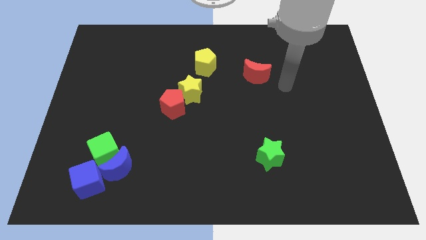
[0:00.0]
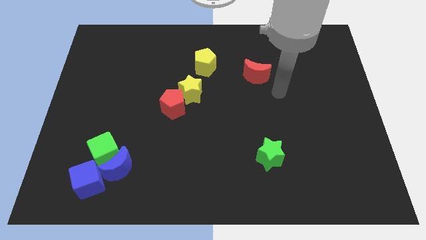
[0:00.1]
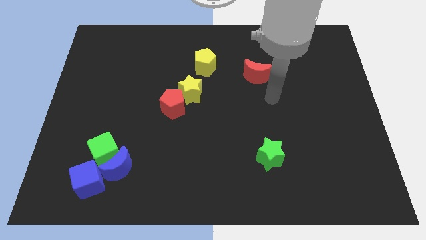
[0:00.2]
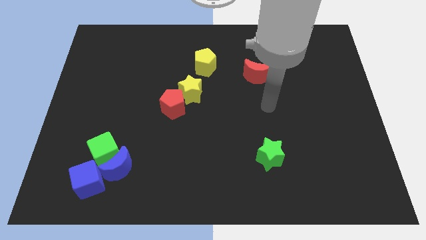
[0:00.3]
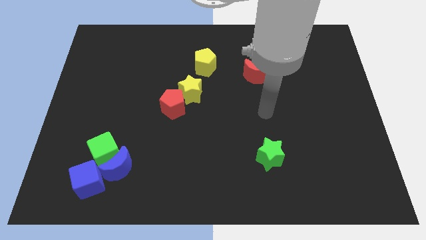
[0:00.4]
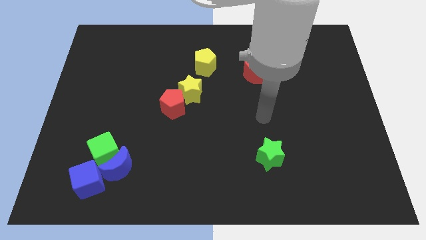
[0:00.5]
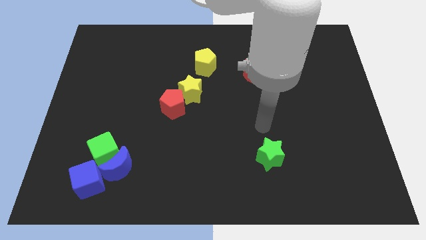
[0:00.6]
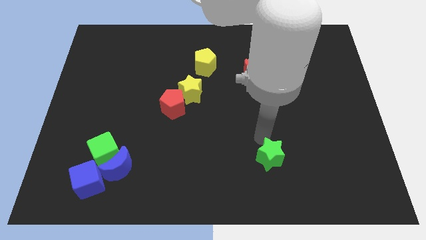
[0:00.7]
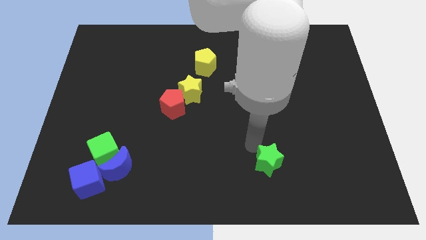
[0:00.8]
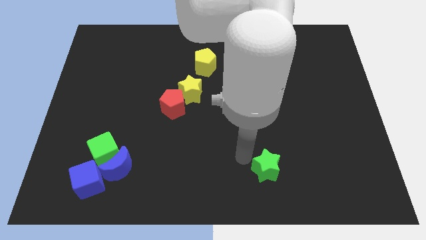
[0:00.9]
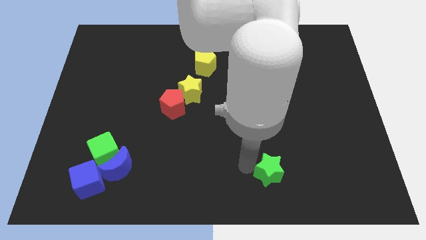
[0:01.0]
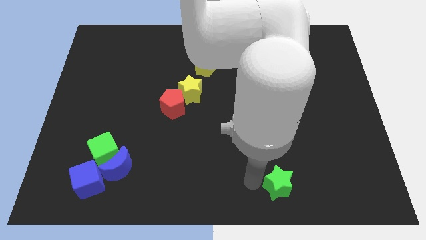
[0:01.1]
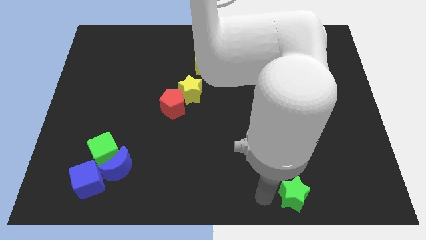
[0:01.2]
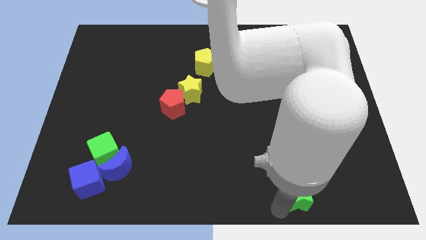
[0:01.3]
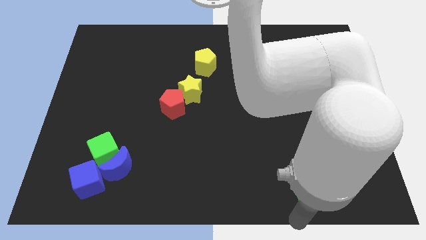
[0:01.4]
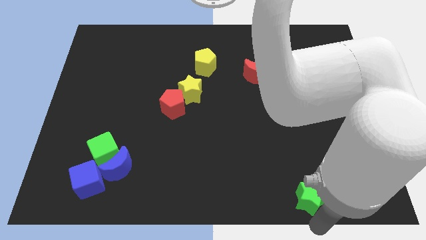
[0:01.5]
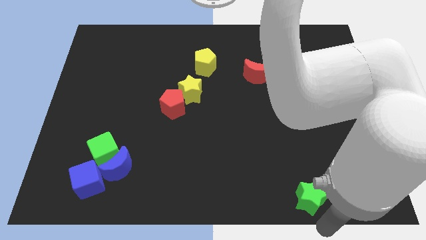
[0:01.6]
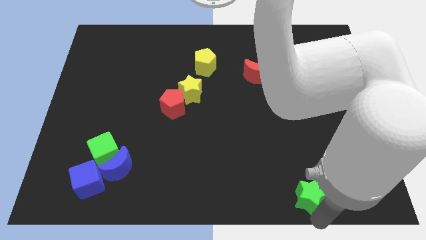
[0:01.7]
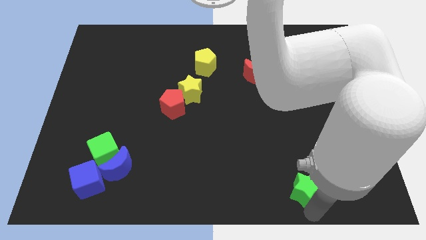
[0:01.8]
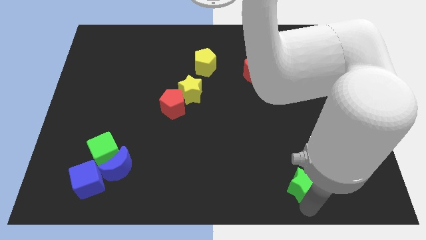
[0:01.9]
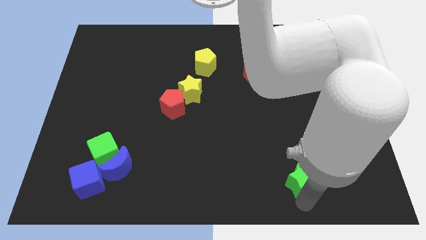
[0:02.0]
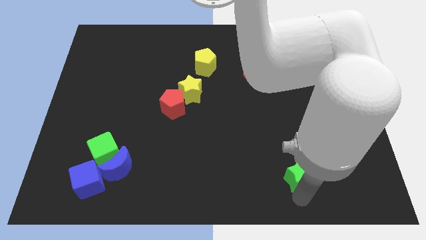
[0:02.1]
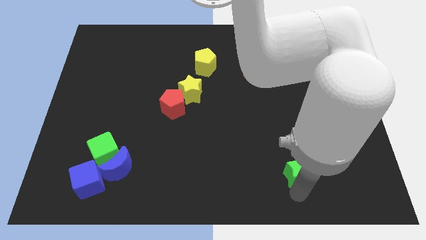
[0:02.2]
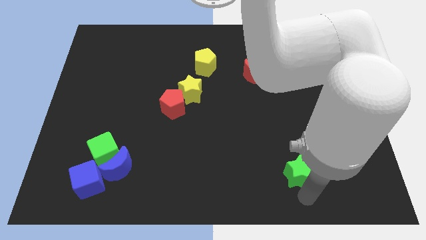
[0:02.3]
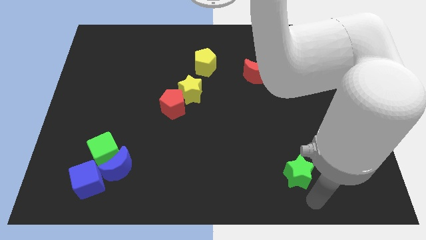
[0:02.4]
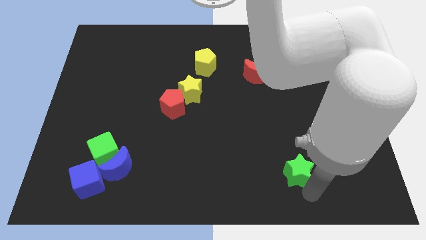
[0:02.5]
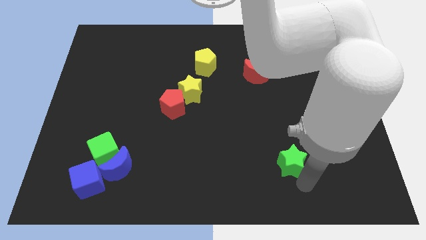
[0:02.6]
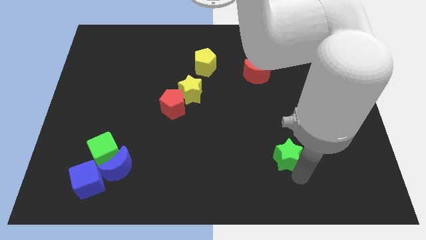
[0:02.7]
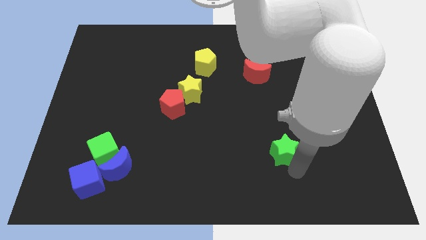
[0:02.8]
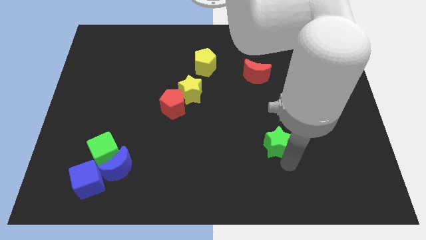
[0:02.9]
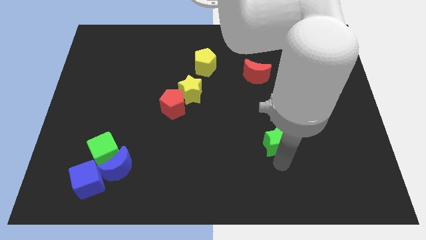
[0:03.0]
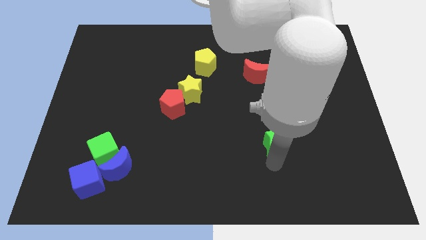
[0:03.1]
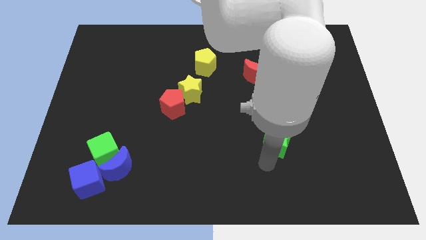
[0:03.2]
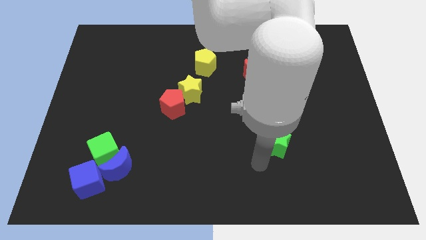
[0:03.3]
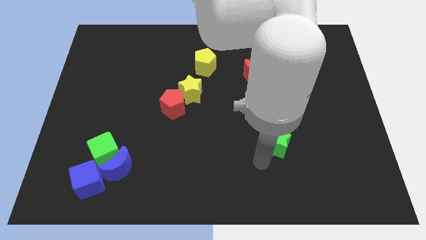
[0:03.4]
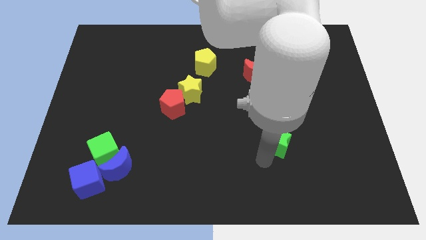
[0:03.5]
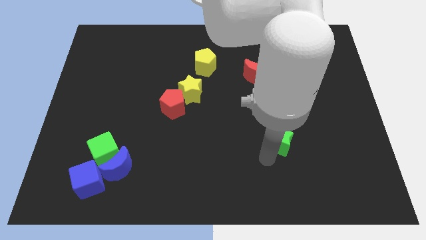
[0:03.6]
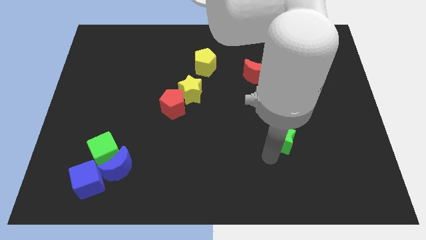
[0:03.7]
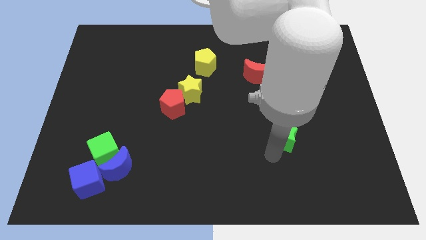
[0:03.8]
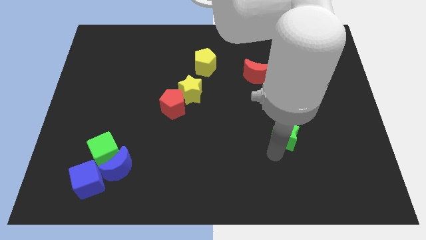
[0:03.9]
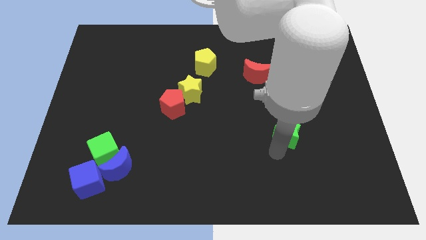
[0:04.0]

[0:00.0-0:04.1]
slightly move the green star up and to the right

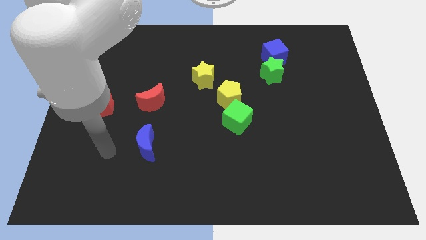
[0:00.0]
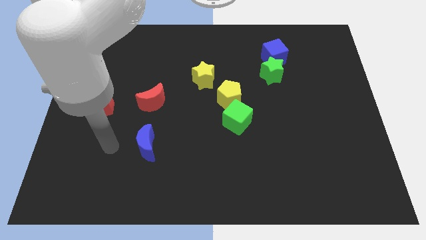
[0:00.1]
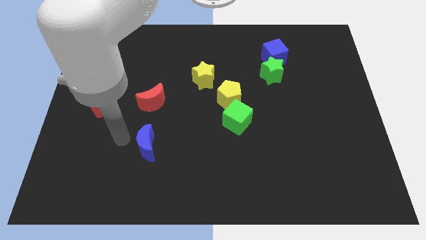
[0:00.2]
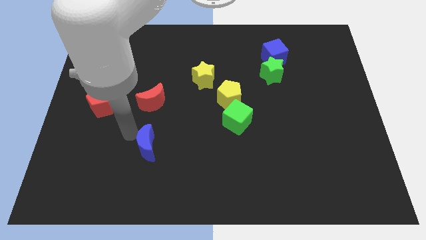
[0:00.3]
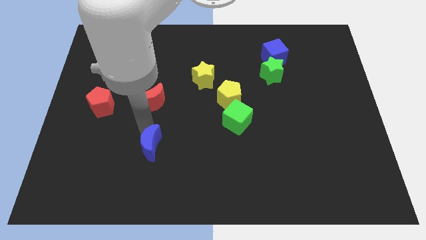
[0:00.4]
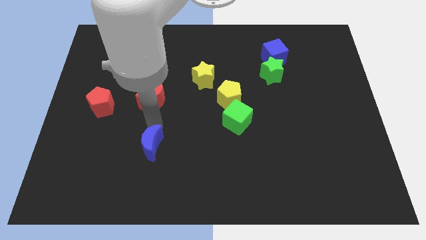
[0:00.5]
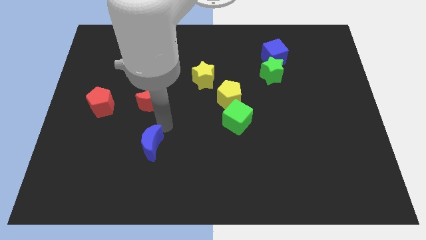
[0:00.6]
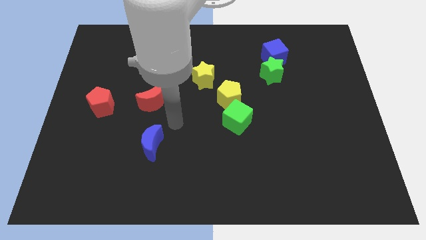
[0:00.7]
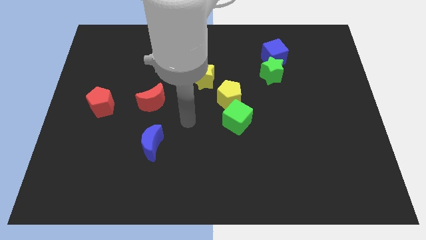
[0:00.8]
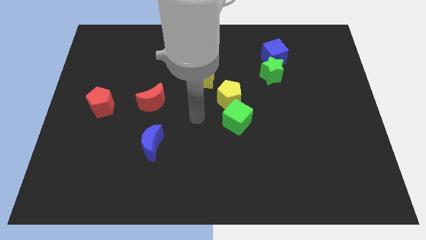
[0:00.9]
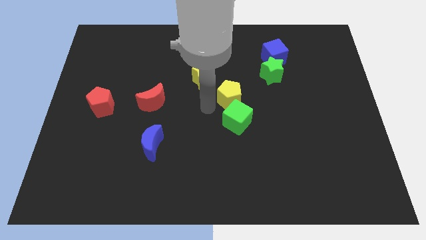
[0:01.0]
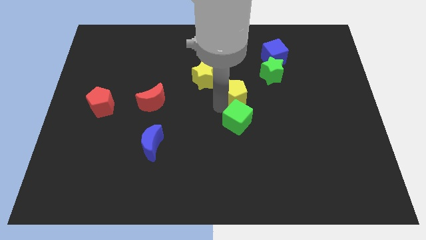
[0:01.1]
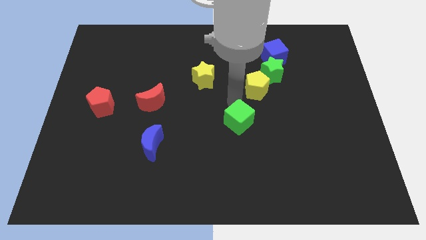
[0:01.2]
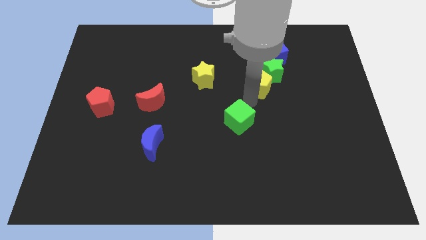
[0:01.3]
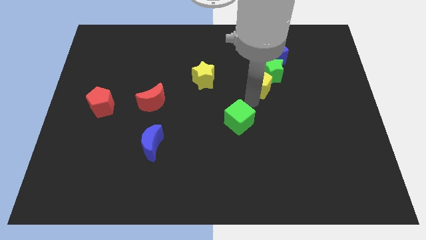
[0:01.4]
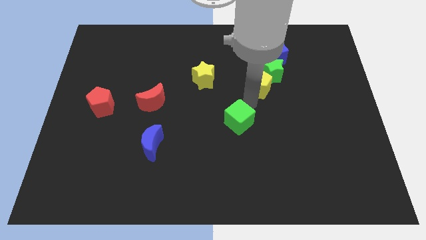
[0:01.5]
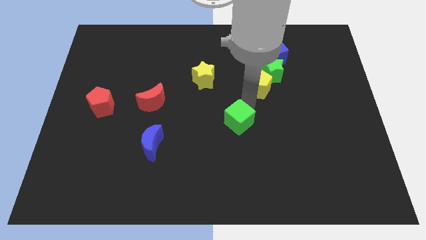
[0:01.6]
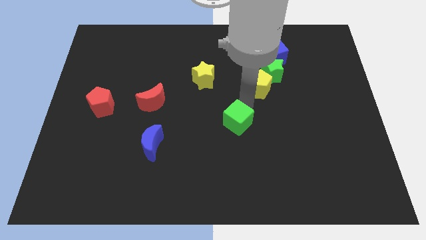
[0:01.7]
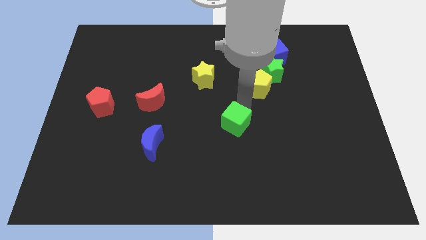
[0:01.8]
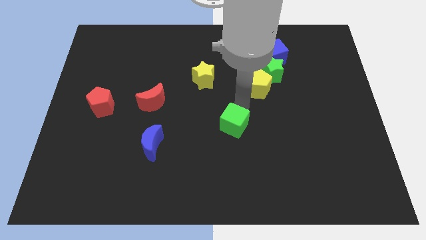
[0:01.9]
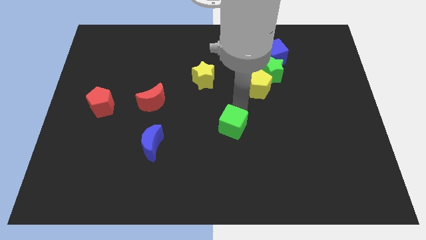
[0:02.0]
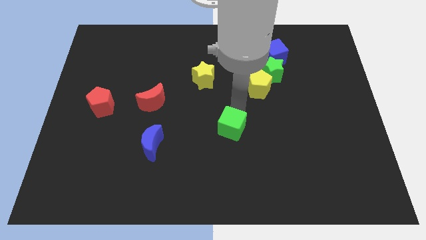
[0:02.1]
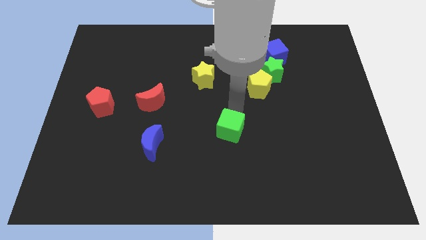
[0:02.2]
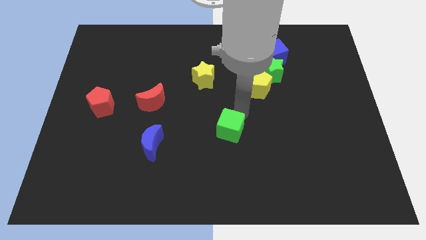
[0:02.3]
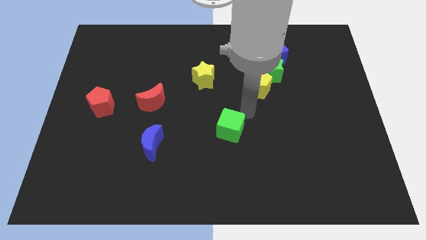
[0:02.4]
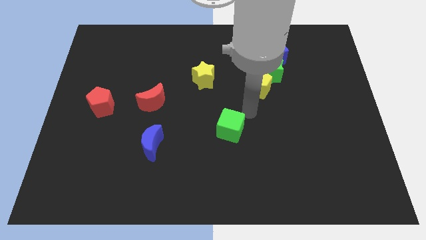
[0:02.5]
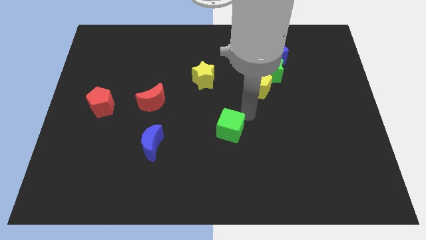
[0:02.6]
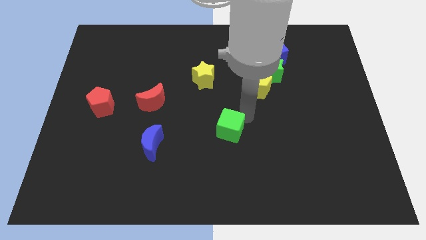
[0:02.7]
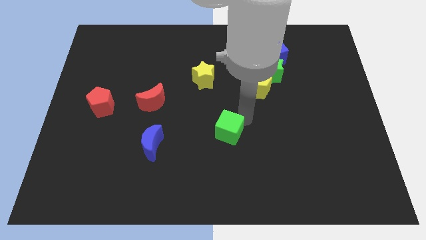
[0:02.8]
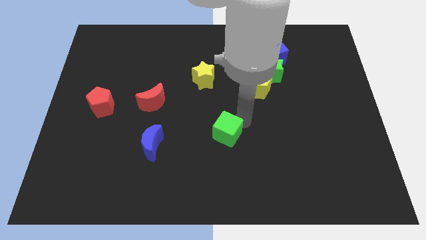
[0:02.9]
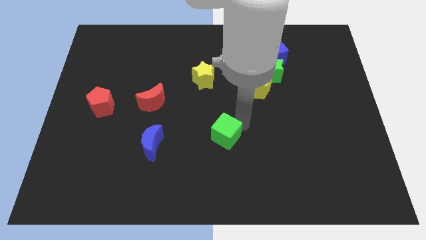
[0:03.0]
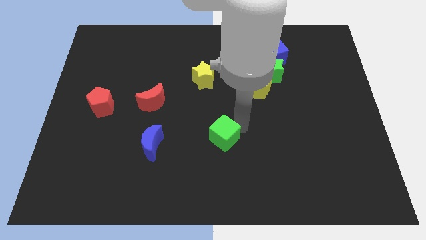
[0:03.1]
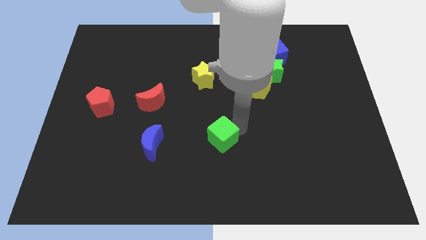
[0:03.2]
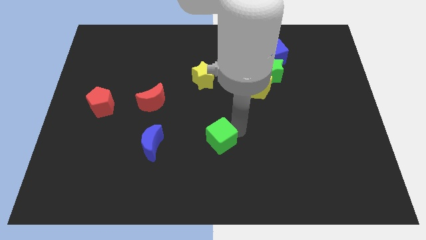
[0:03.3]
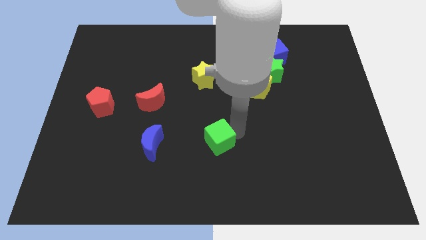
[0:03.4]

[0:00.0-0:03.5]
slightly slide the green cube downwards and left
